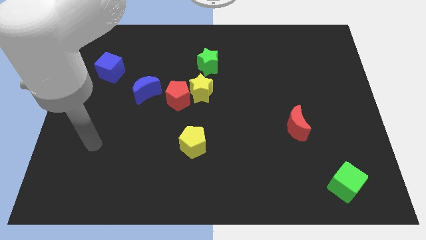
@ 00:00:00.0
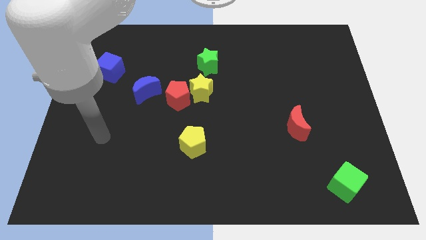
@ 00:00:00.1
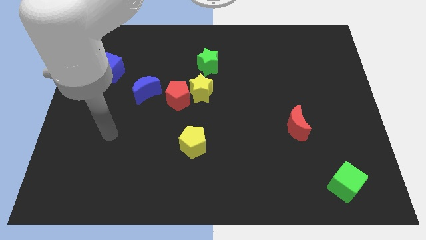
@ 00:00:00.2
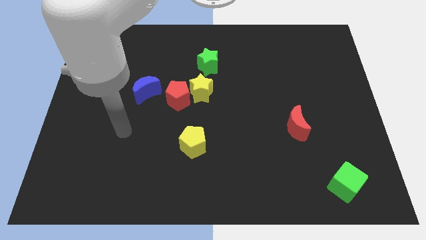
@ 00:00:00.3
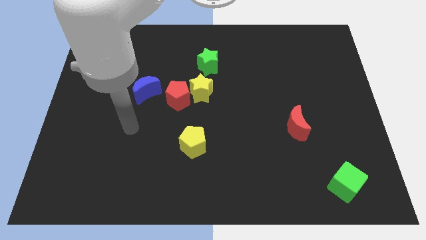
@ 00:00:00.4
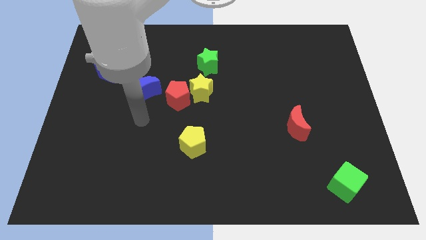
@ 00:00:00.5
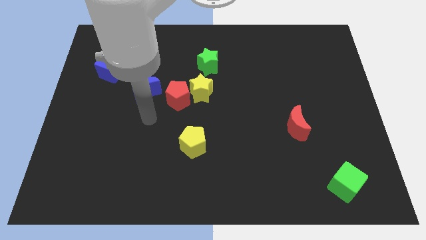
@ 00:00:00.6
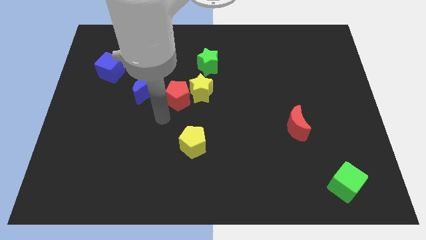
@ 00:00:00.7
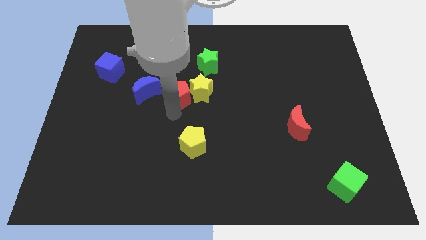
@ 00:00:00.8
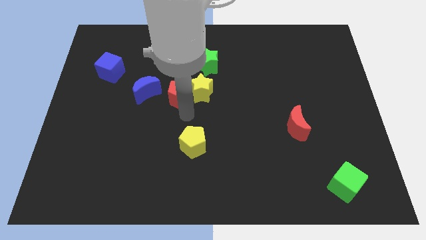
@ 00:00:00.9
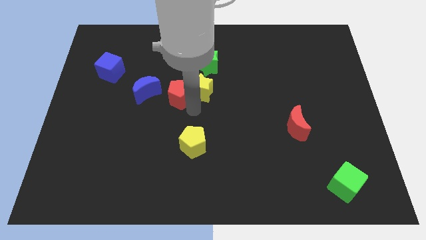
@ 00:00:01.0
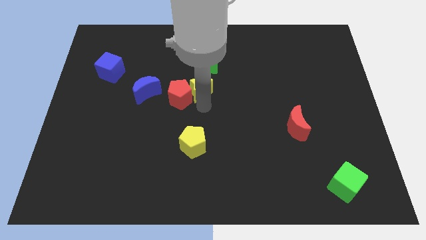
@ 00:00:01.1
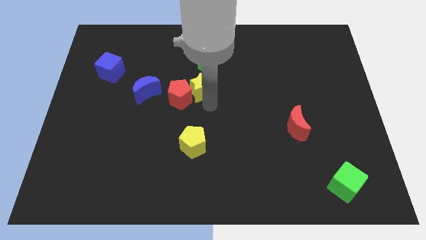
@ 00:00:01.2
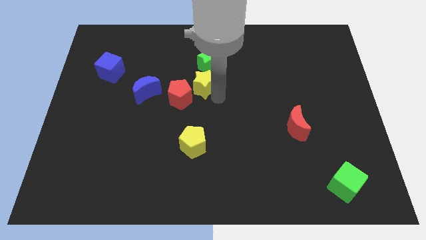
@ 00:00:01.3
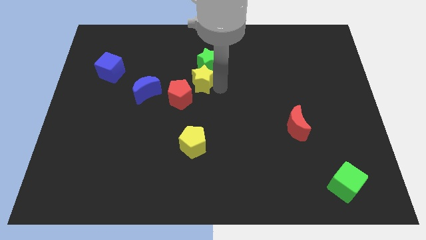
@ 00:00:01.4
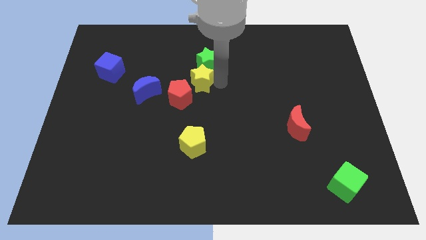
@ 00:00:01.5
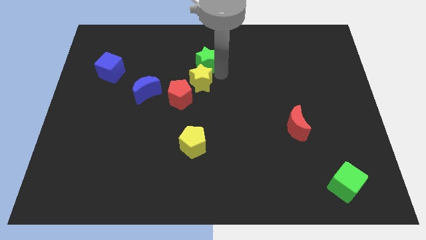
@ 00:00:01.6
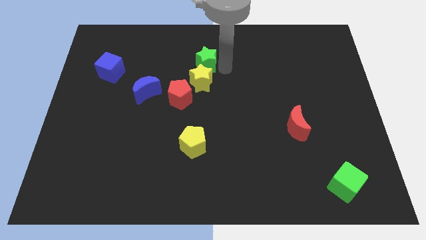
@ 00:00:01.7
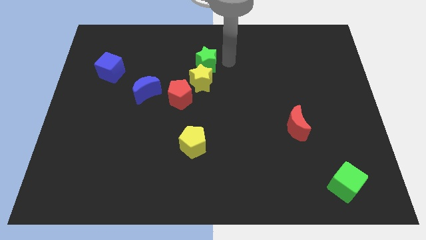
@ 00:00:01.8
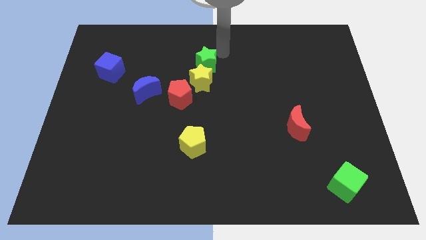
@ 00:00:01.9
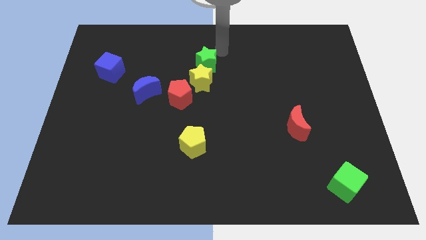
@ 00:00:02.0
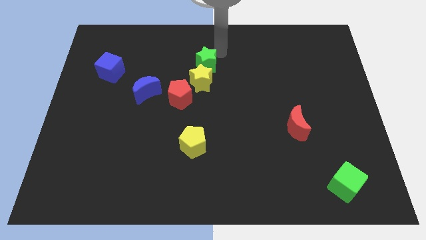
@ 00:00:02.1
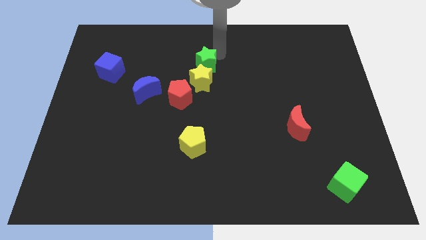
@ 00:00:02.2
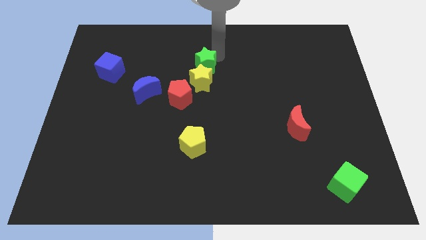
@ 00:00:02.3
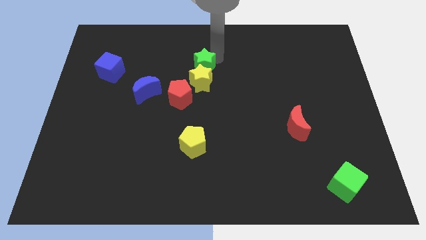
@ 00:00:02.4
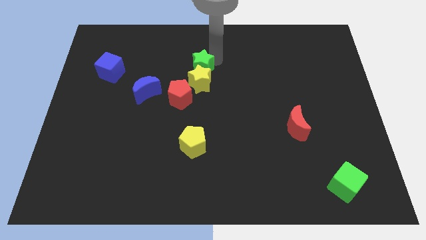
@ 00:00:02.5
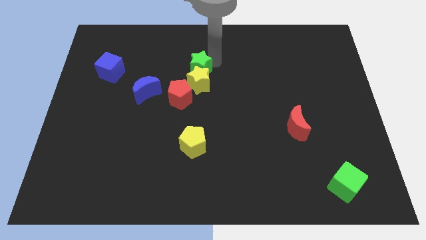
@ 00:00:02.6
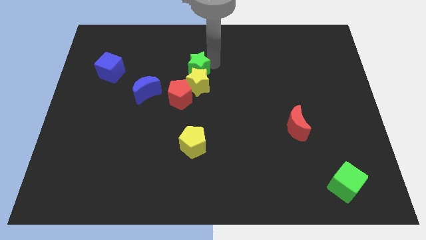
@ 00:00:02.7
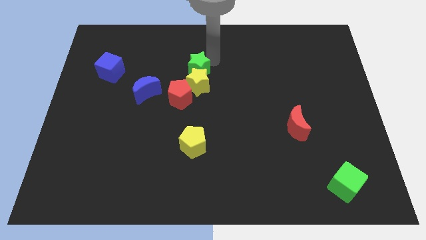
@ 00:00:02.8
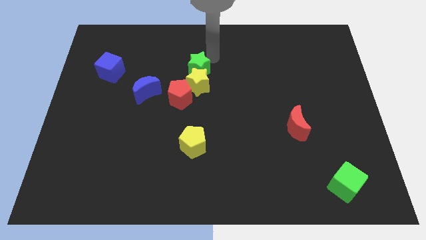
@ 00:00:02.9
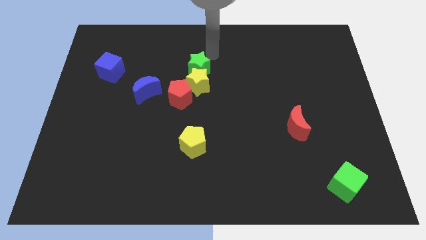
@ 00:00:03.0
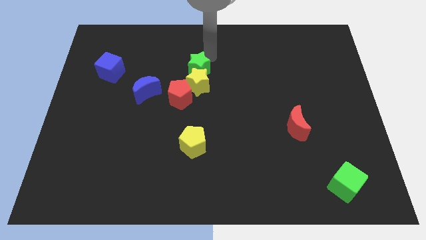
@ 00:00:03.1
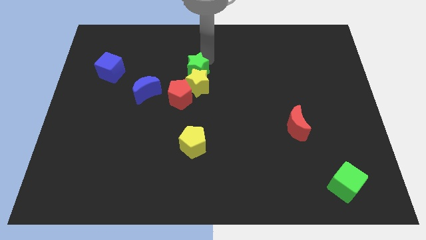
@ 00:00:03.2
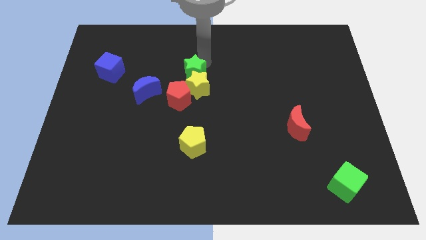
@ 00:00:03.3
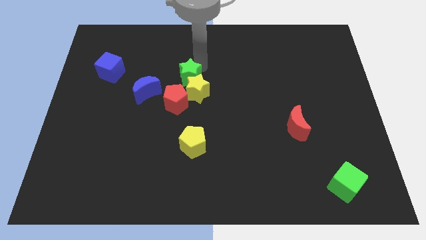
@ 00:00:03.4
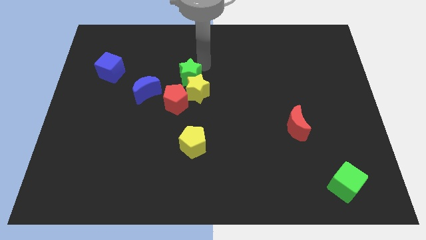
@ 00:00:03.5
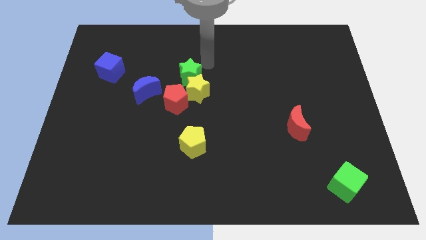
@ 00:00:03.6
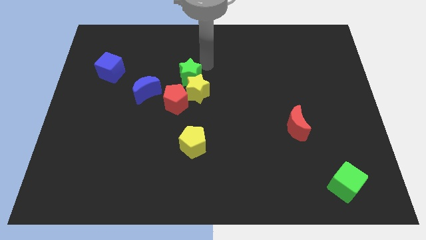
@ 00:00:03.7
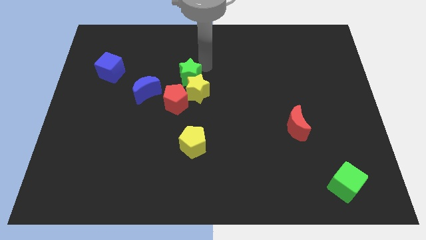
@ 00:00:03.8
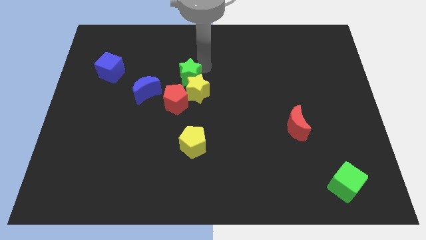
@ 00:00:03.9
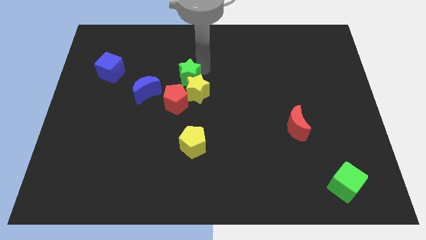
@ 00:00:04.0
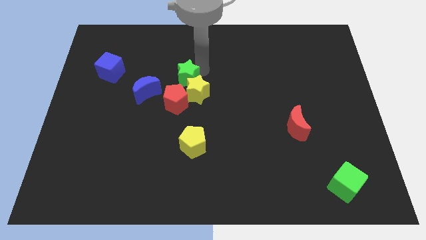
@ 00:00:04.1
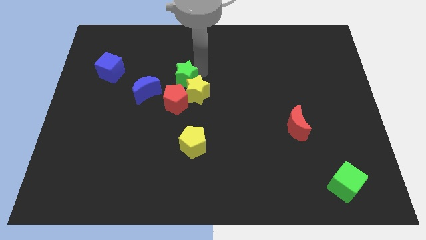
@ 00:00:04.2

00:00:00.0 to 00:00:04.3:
slightly push the green star diagonally downwards and left

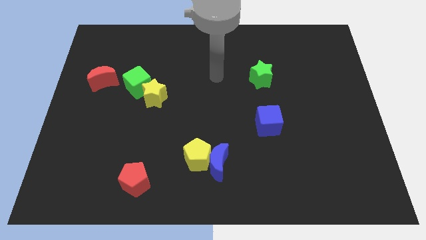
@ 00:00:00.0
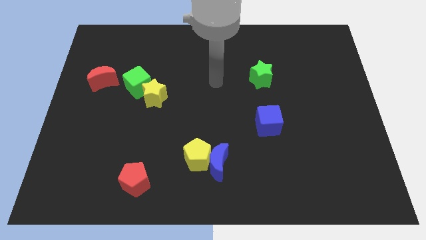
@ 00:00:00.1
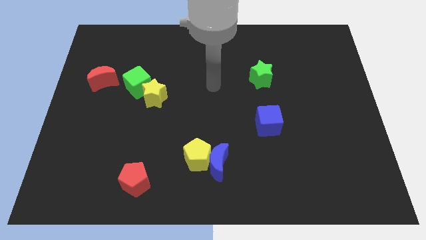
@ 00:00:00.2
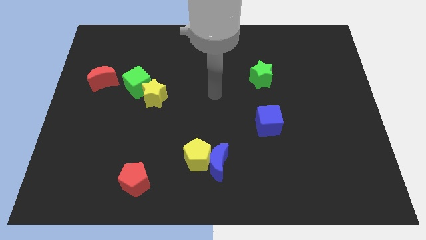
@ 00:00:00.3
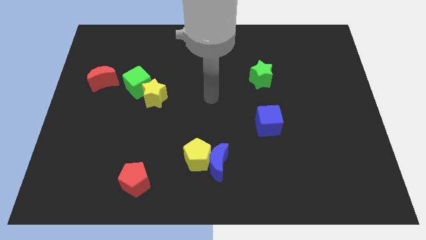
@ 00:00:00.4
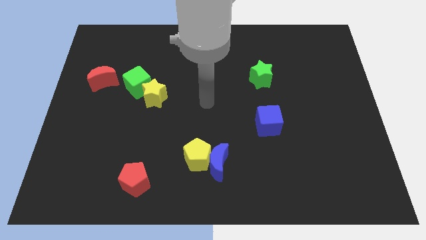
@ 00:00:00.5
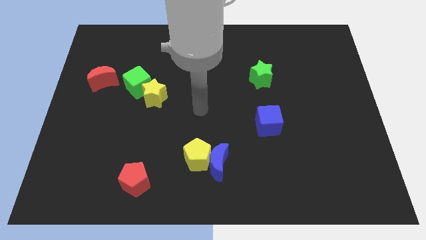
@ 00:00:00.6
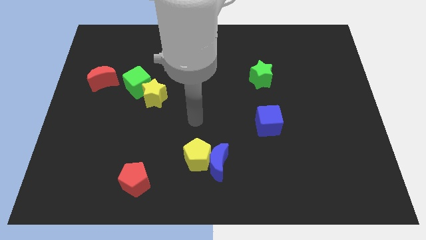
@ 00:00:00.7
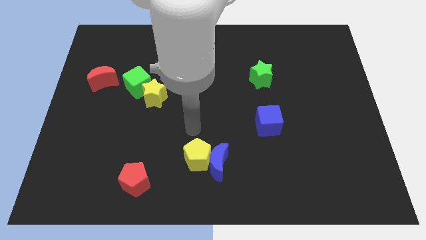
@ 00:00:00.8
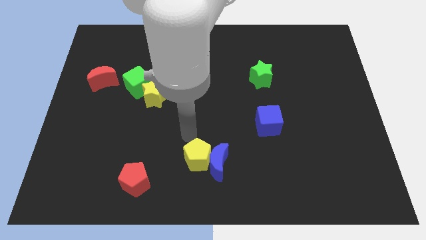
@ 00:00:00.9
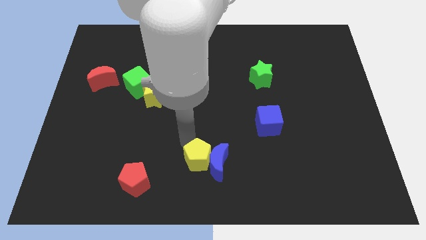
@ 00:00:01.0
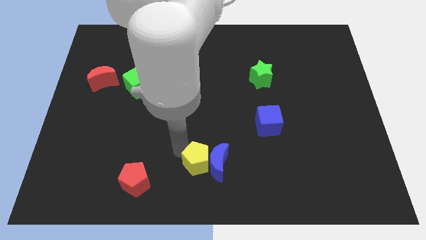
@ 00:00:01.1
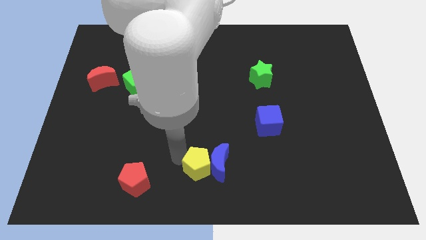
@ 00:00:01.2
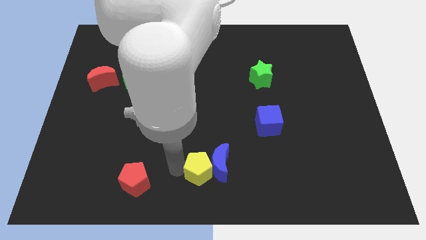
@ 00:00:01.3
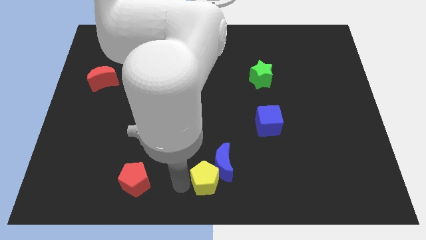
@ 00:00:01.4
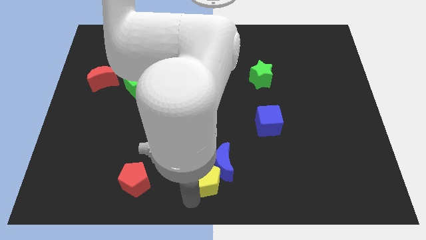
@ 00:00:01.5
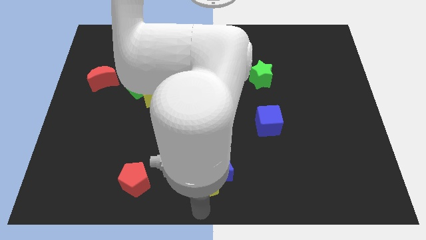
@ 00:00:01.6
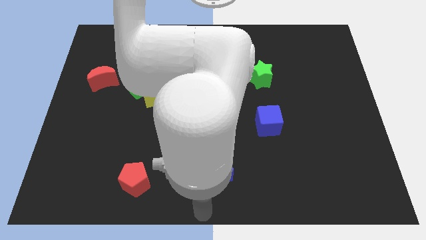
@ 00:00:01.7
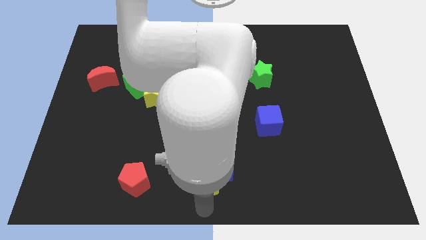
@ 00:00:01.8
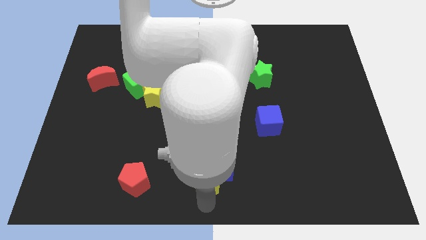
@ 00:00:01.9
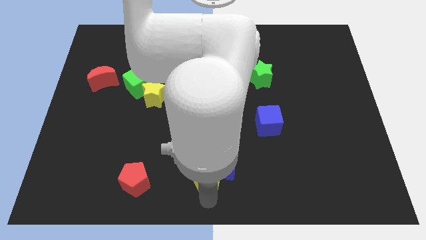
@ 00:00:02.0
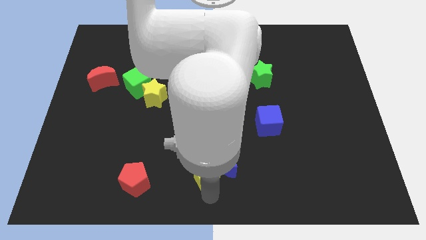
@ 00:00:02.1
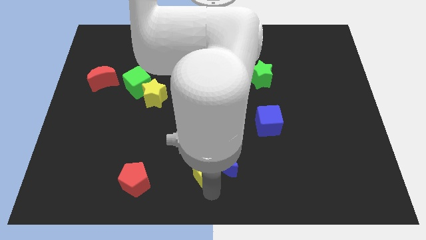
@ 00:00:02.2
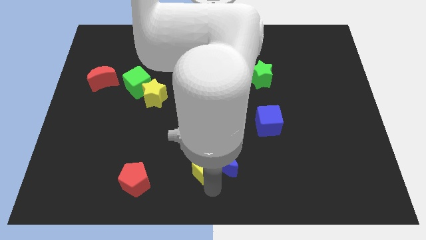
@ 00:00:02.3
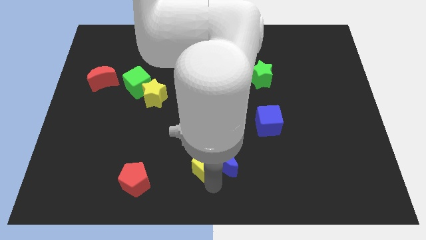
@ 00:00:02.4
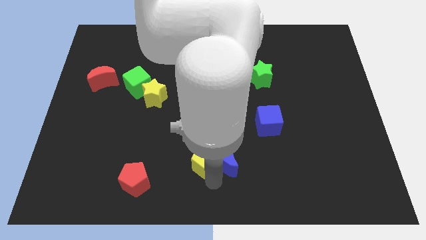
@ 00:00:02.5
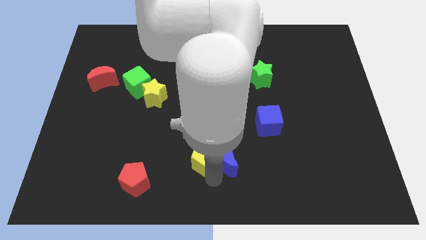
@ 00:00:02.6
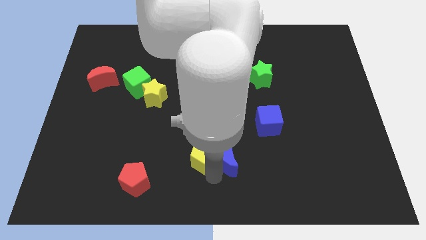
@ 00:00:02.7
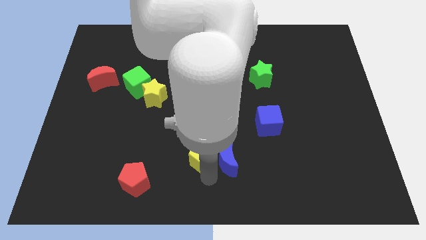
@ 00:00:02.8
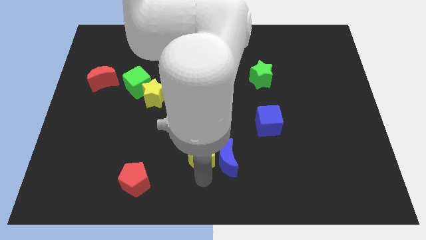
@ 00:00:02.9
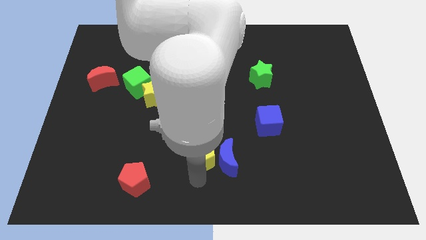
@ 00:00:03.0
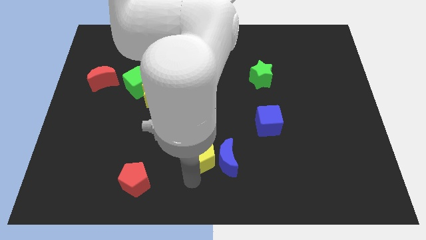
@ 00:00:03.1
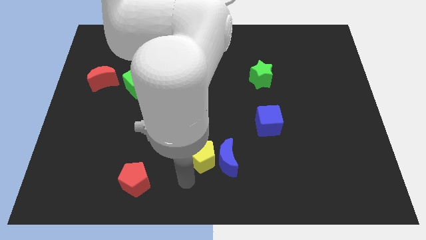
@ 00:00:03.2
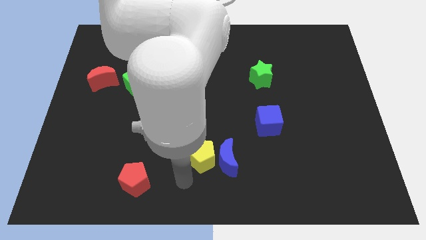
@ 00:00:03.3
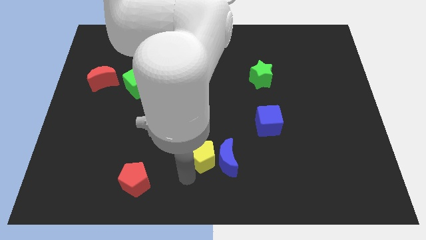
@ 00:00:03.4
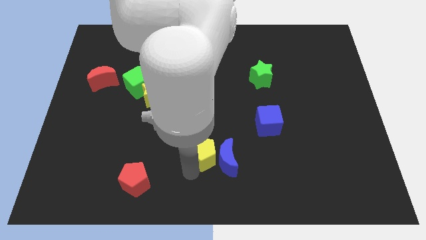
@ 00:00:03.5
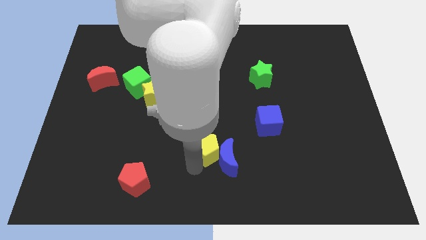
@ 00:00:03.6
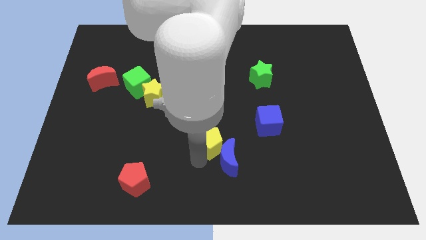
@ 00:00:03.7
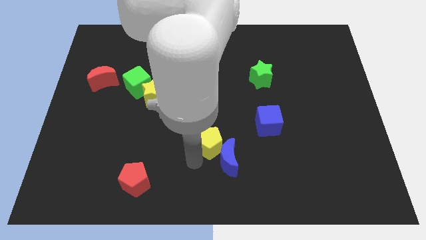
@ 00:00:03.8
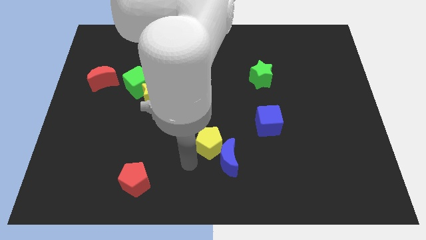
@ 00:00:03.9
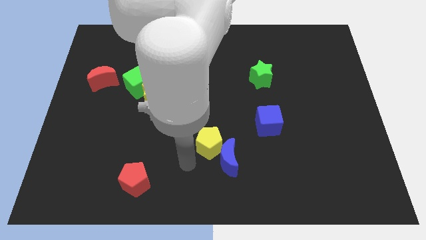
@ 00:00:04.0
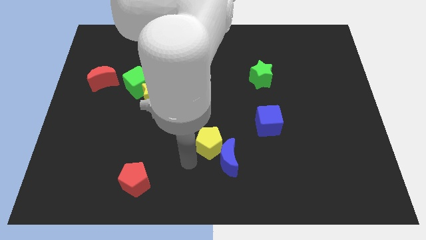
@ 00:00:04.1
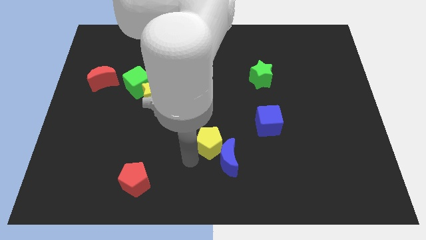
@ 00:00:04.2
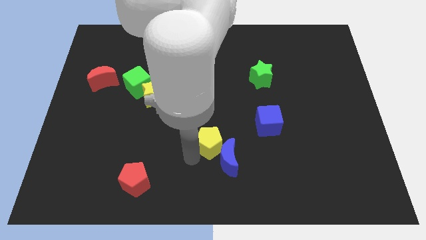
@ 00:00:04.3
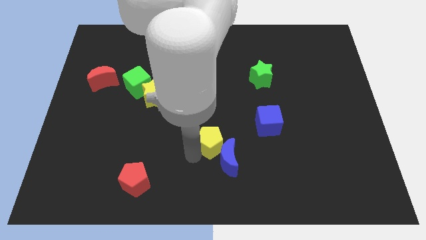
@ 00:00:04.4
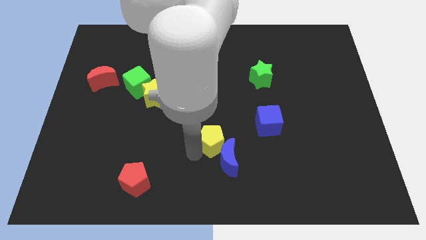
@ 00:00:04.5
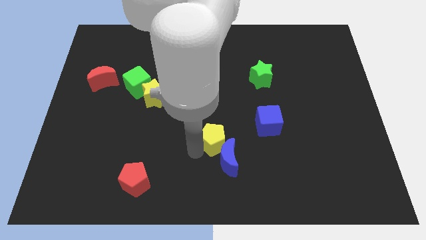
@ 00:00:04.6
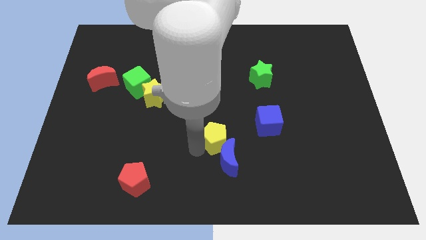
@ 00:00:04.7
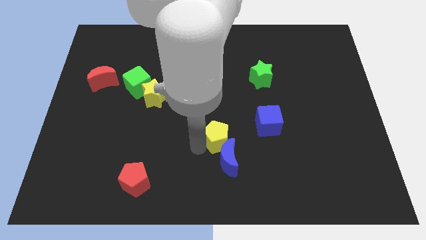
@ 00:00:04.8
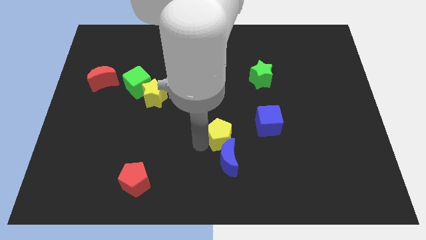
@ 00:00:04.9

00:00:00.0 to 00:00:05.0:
move the yellow pentagon somewhat up and to the right
